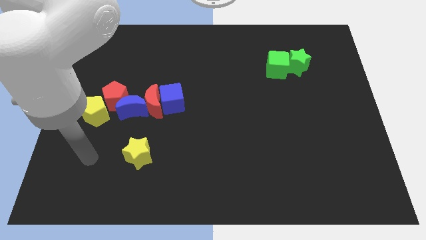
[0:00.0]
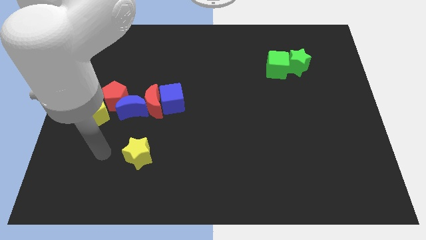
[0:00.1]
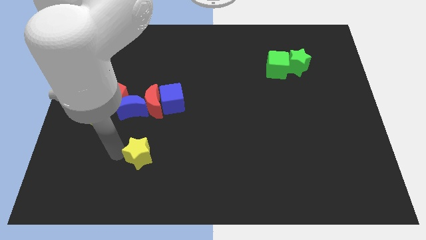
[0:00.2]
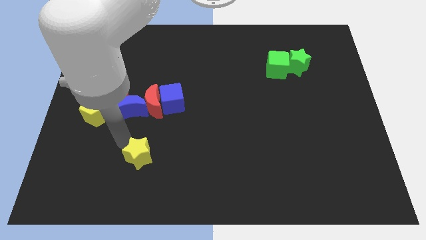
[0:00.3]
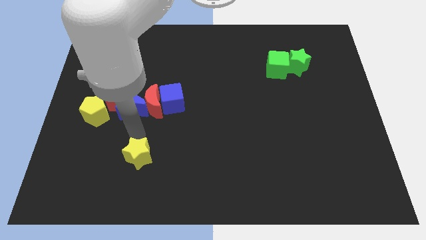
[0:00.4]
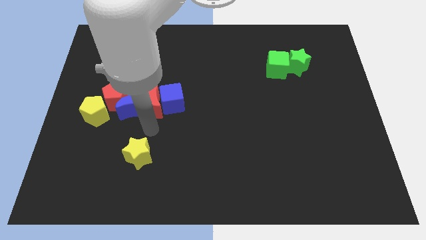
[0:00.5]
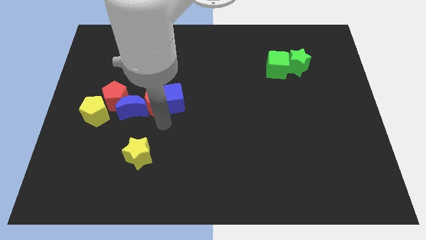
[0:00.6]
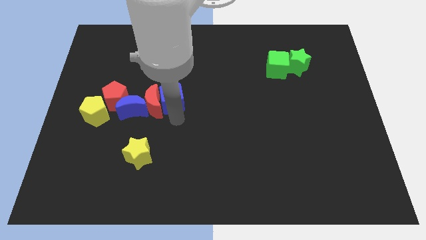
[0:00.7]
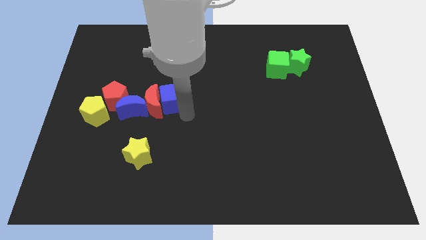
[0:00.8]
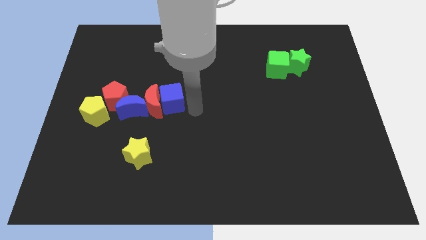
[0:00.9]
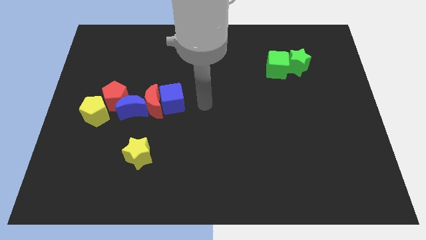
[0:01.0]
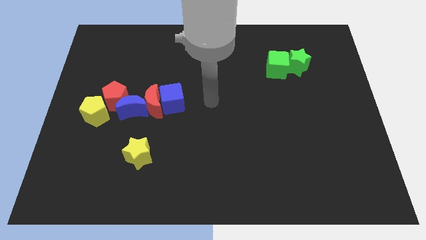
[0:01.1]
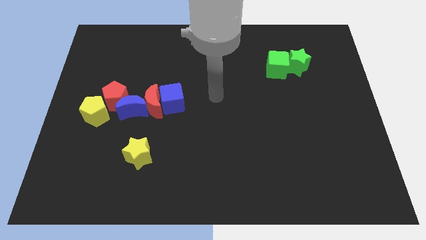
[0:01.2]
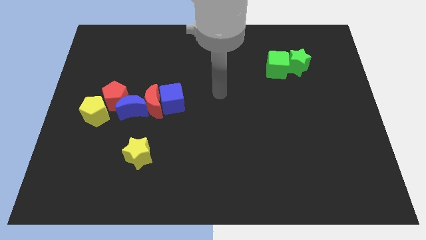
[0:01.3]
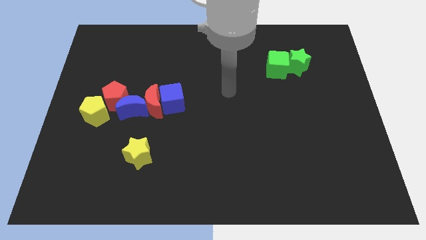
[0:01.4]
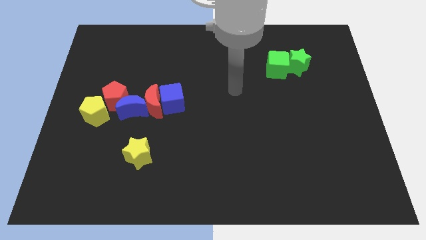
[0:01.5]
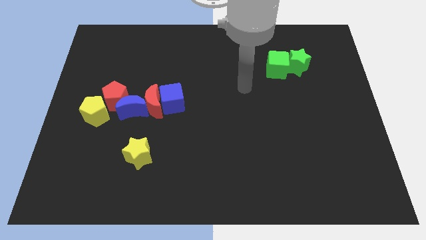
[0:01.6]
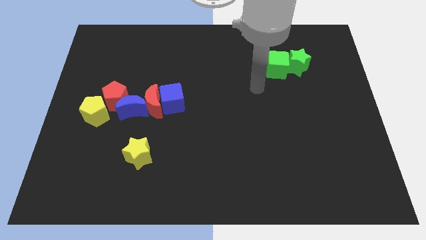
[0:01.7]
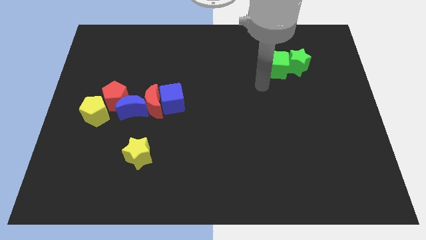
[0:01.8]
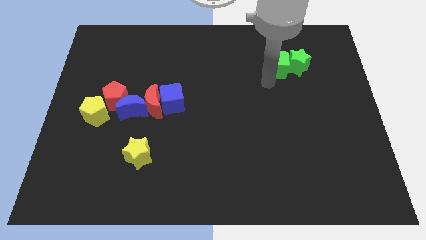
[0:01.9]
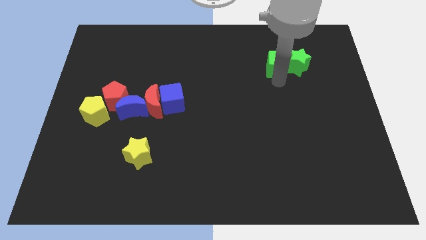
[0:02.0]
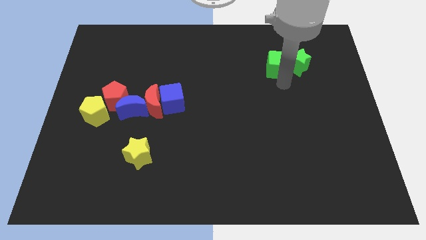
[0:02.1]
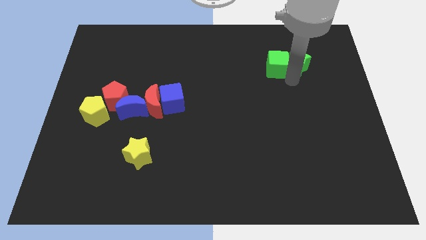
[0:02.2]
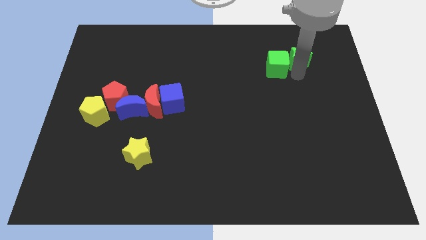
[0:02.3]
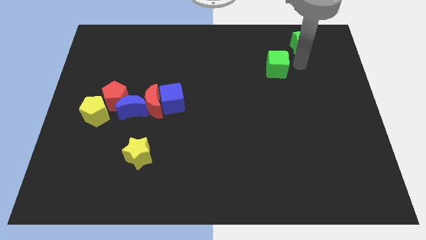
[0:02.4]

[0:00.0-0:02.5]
move the green cube away from the green star

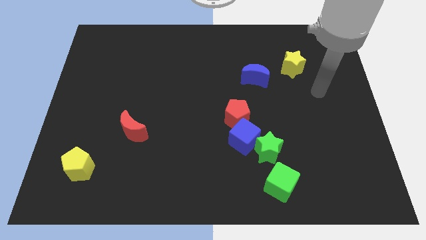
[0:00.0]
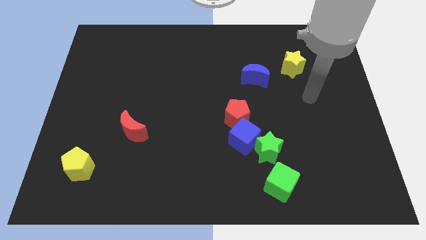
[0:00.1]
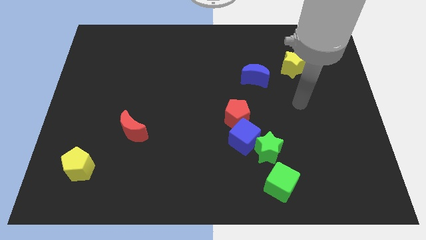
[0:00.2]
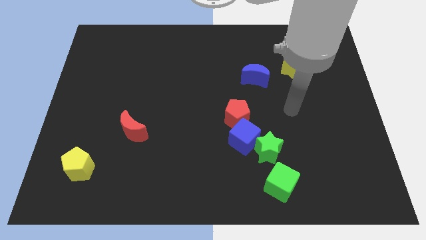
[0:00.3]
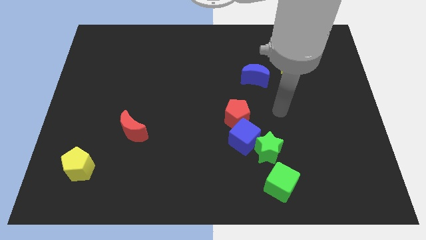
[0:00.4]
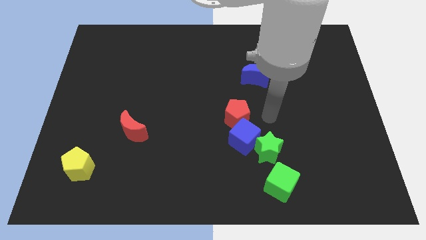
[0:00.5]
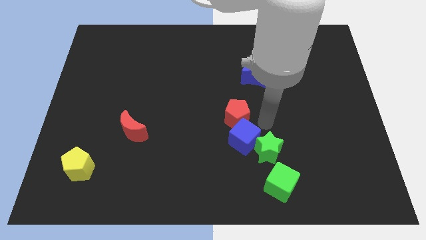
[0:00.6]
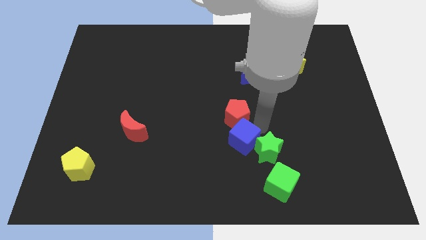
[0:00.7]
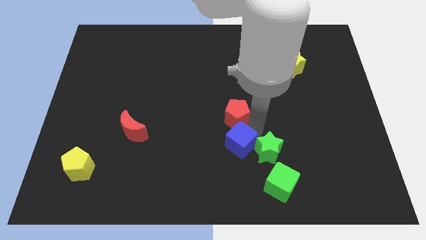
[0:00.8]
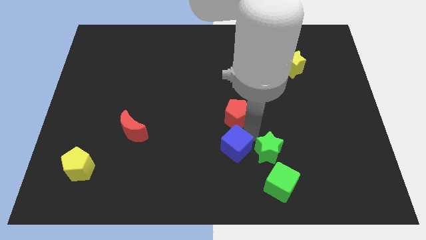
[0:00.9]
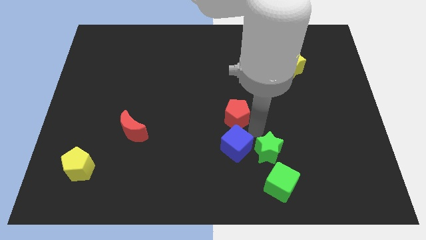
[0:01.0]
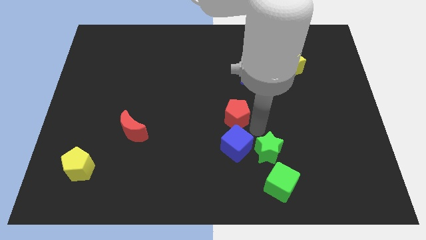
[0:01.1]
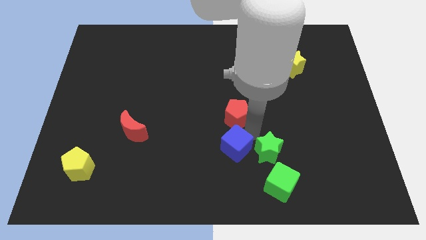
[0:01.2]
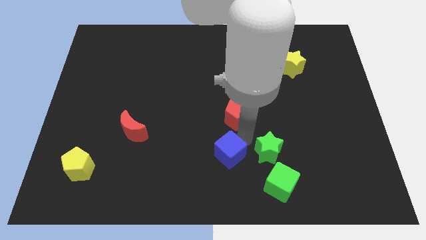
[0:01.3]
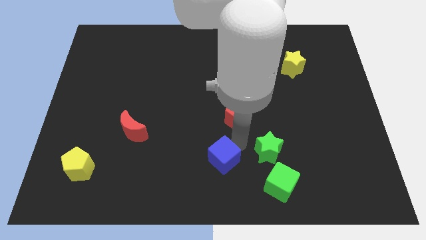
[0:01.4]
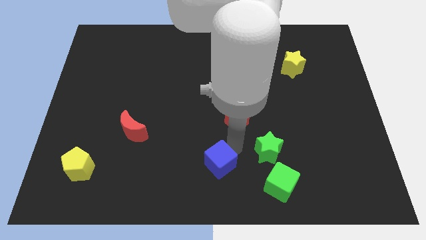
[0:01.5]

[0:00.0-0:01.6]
separate the blue cube from the green star and red pentagon

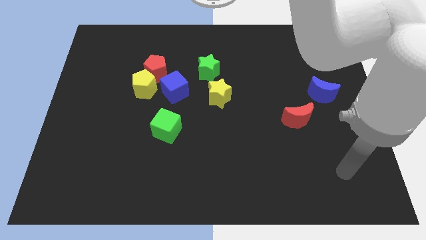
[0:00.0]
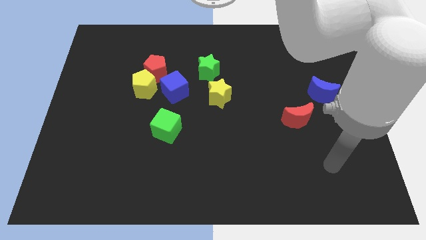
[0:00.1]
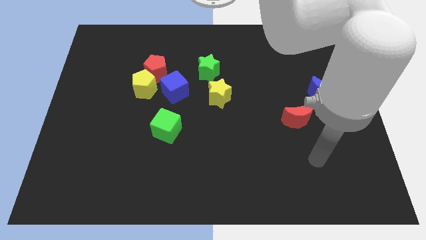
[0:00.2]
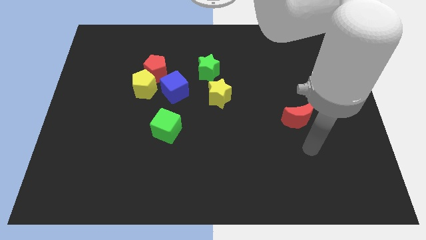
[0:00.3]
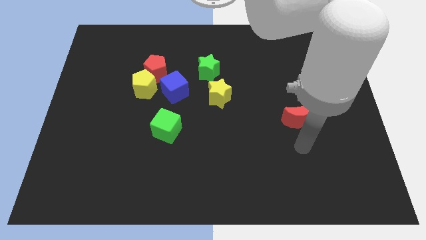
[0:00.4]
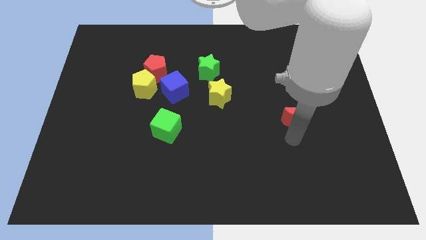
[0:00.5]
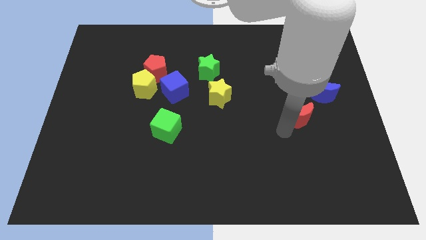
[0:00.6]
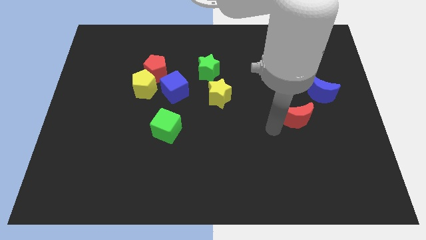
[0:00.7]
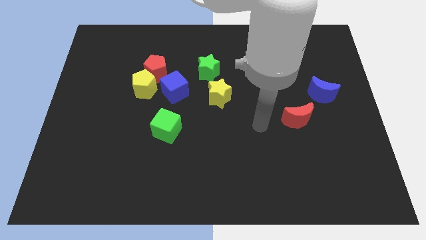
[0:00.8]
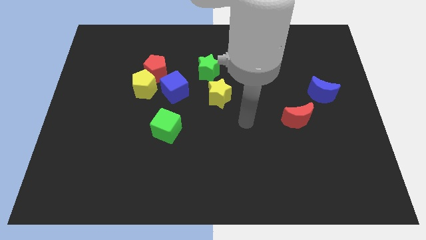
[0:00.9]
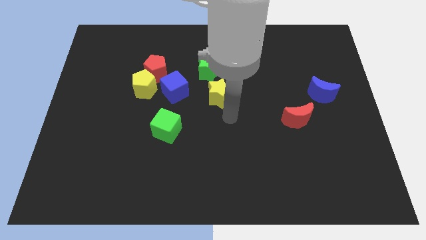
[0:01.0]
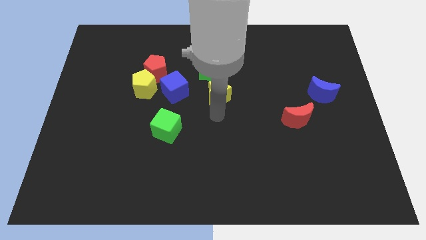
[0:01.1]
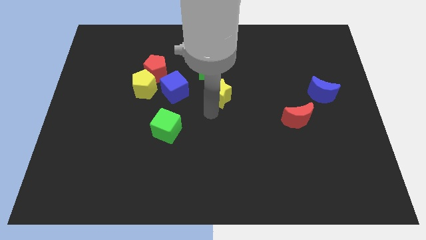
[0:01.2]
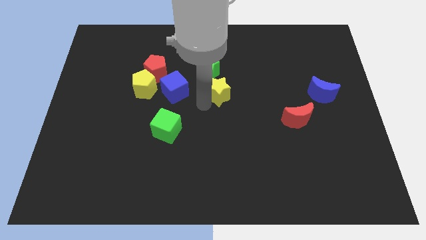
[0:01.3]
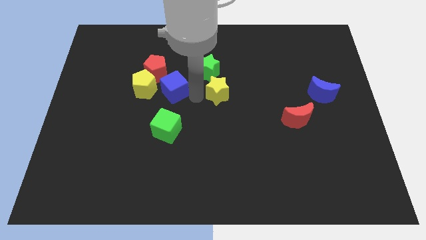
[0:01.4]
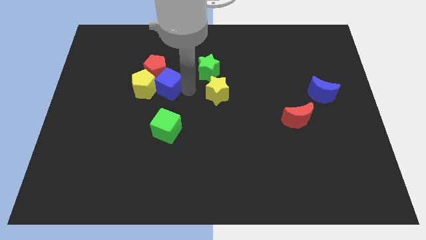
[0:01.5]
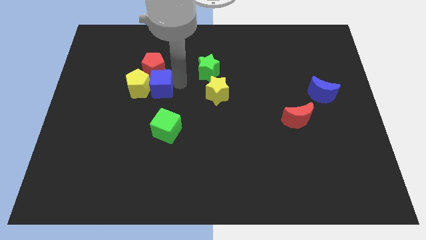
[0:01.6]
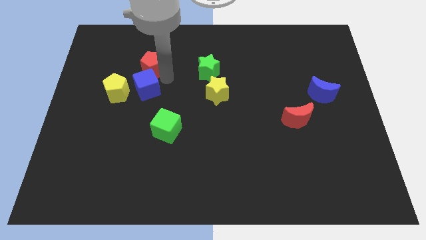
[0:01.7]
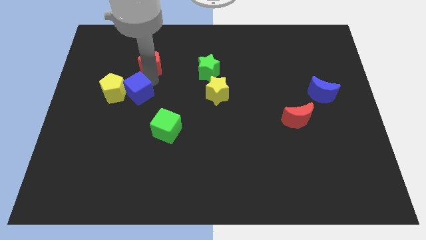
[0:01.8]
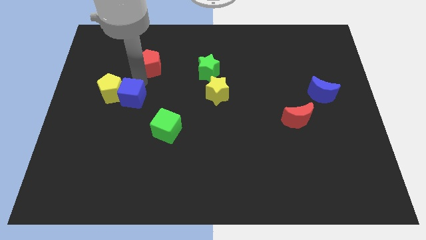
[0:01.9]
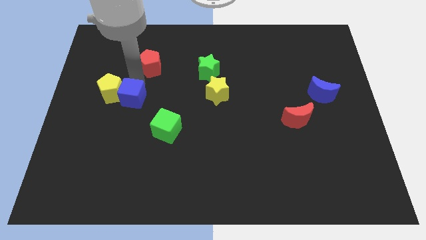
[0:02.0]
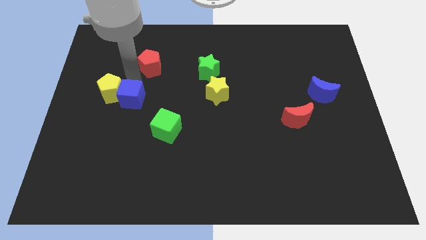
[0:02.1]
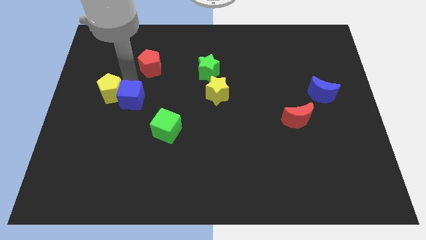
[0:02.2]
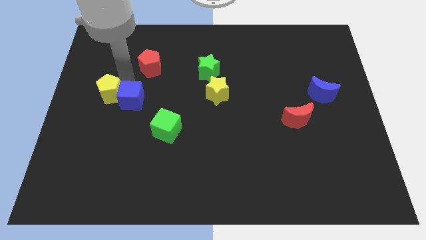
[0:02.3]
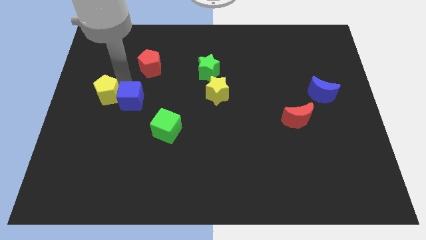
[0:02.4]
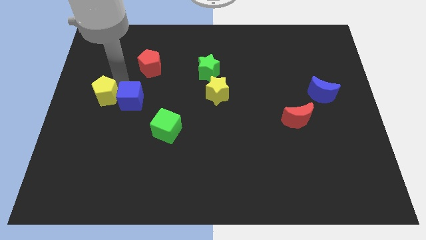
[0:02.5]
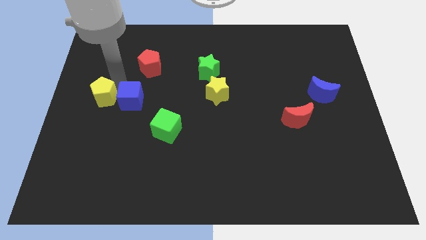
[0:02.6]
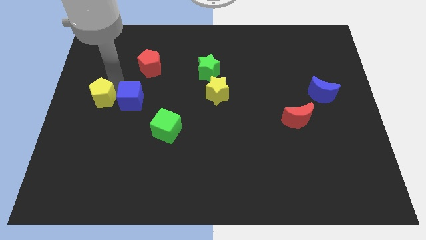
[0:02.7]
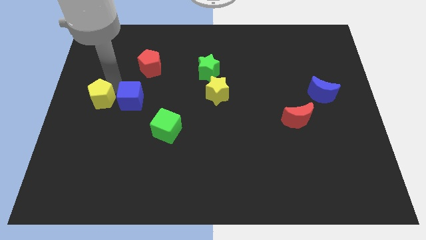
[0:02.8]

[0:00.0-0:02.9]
separate the yellow pentagon from the red pentagon and blue cube

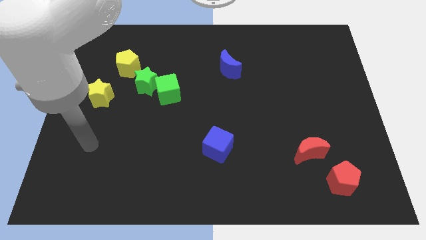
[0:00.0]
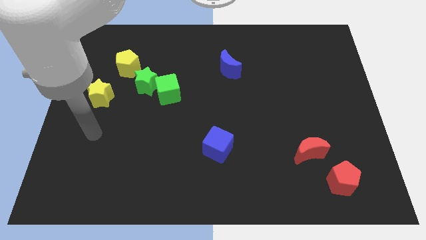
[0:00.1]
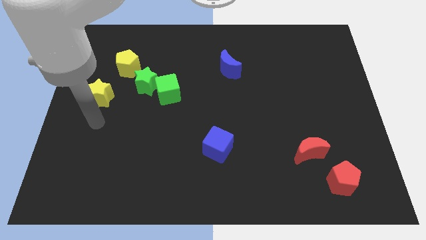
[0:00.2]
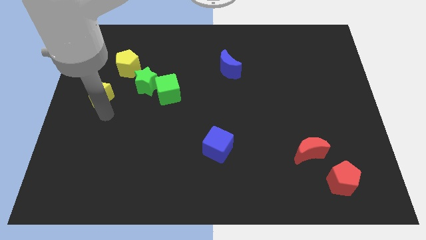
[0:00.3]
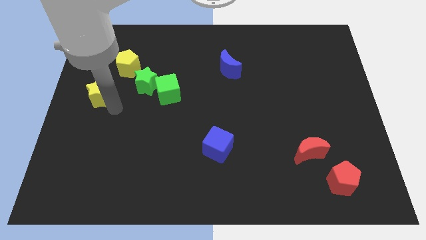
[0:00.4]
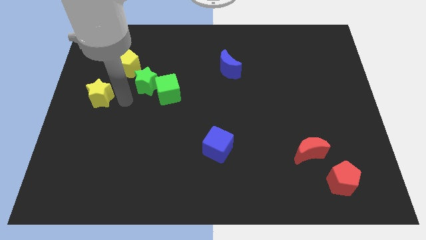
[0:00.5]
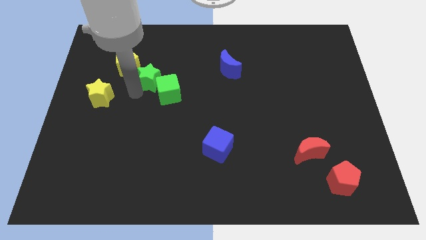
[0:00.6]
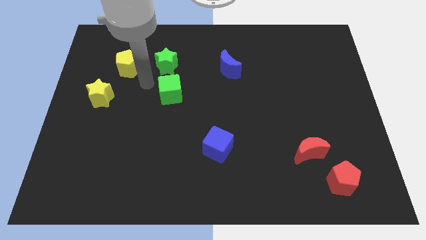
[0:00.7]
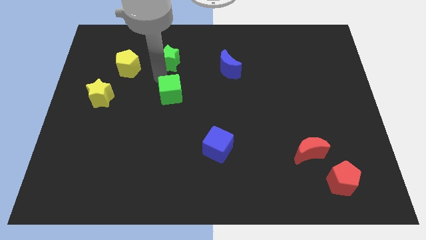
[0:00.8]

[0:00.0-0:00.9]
pull the green cube apart from the green star

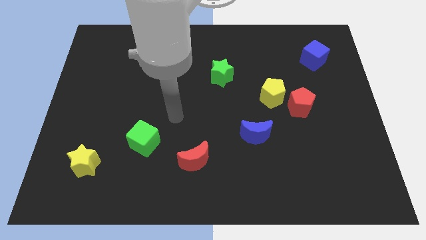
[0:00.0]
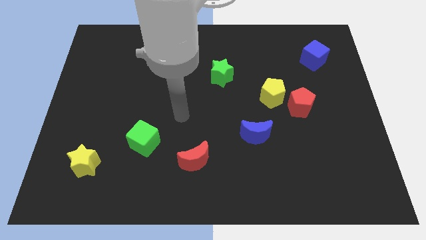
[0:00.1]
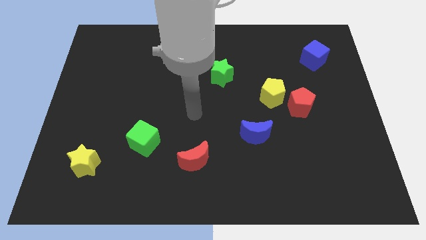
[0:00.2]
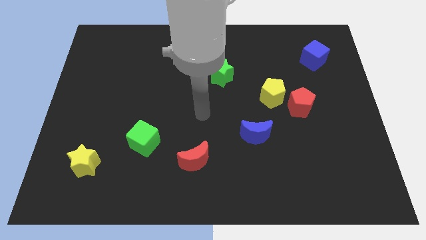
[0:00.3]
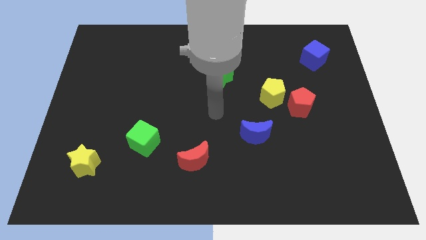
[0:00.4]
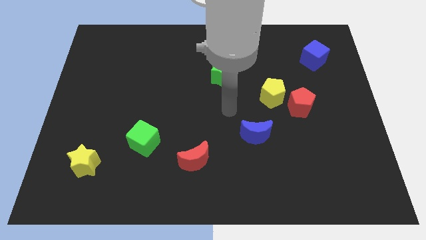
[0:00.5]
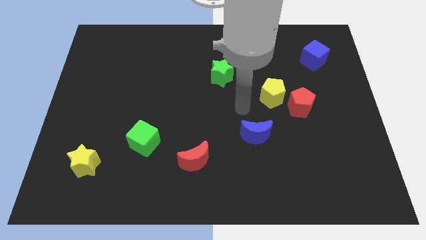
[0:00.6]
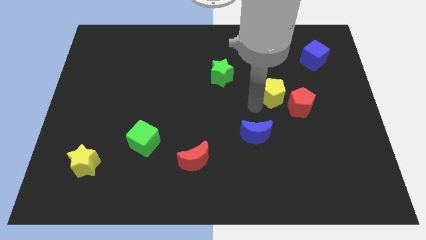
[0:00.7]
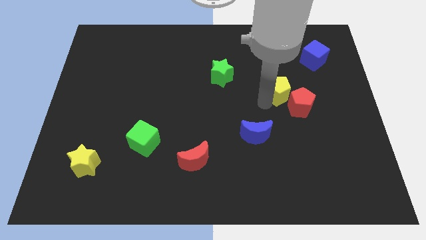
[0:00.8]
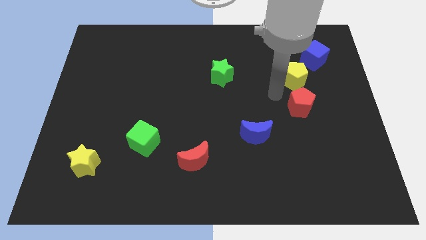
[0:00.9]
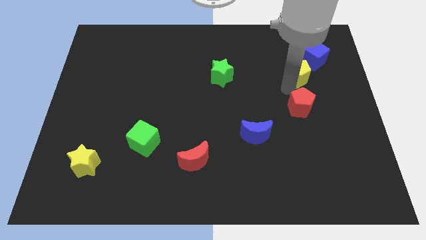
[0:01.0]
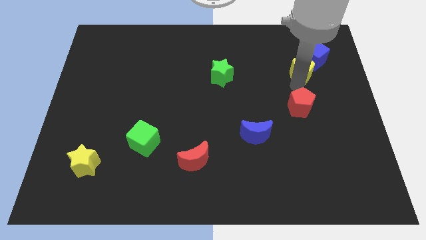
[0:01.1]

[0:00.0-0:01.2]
separate the red pentagon from the yellow pentagon

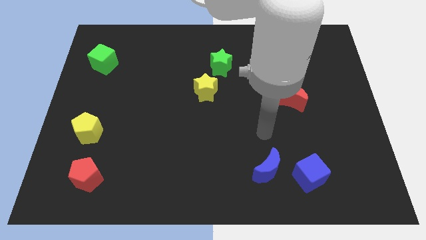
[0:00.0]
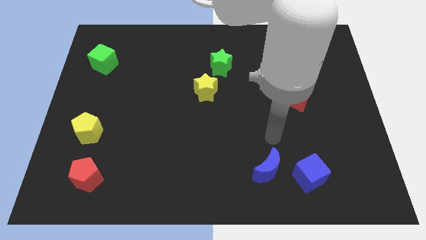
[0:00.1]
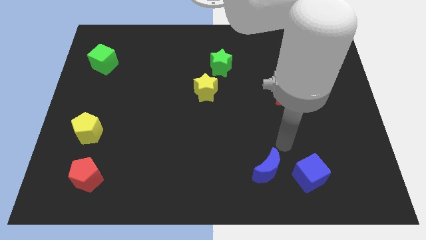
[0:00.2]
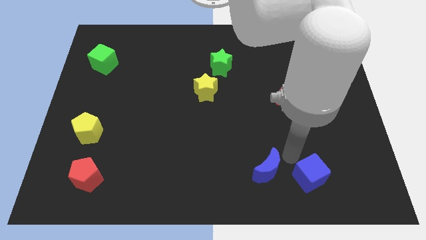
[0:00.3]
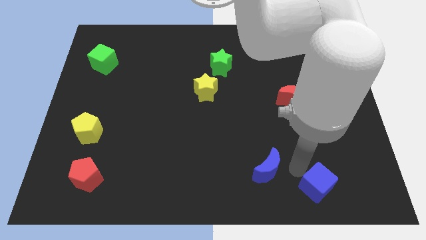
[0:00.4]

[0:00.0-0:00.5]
separate the blue moon from the blue cube
